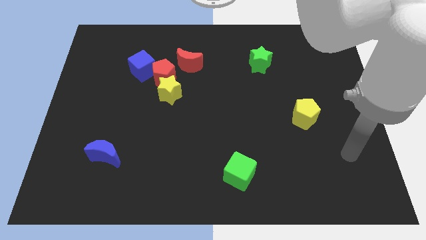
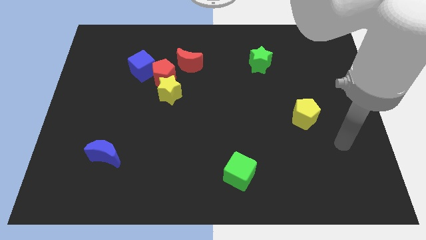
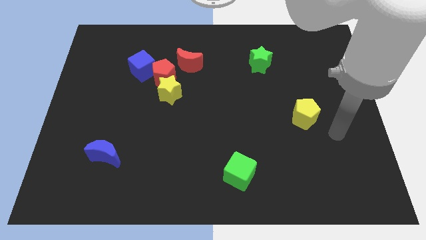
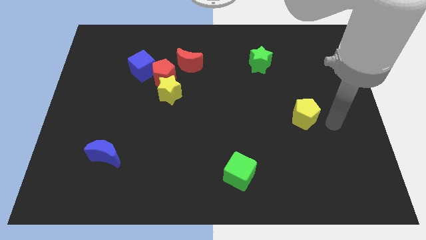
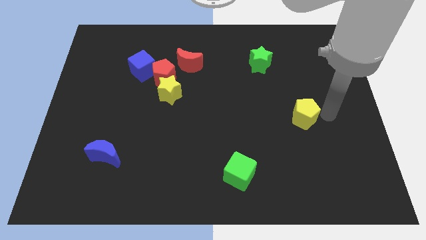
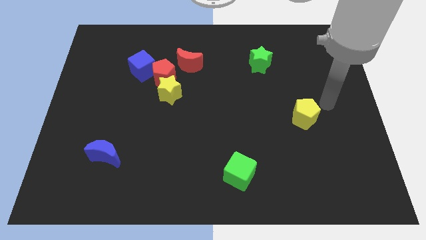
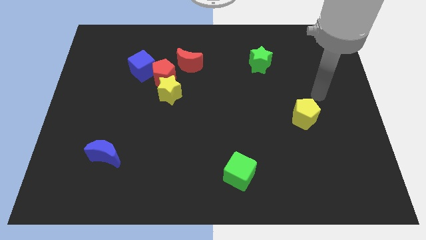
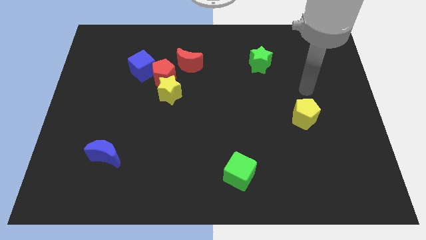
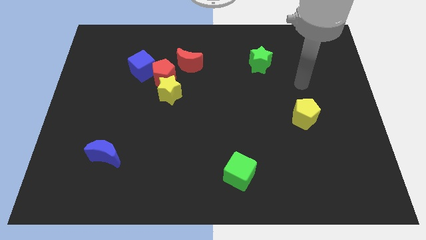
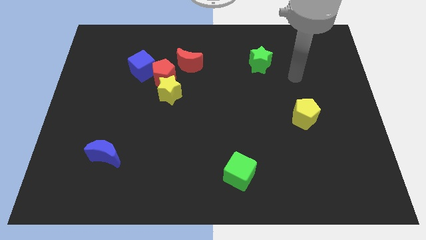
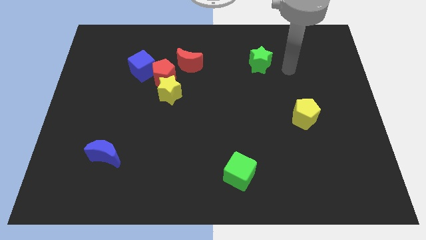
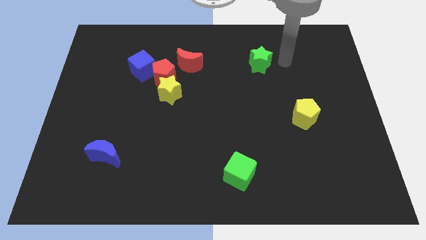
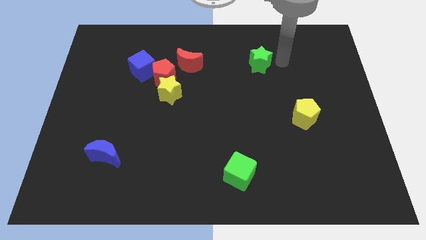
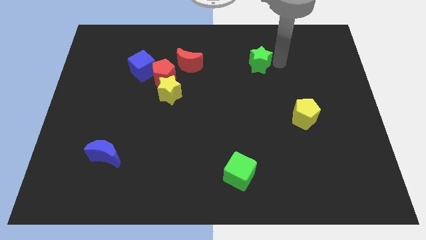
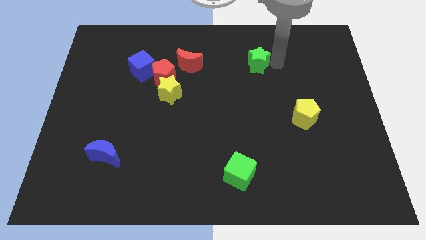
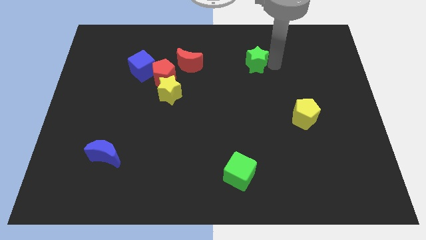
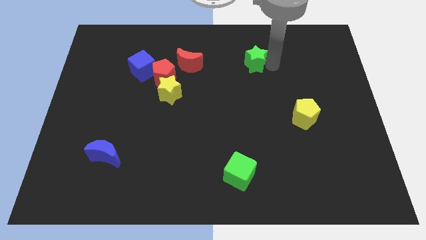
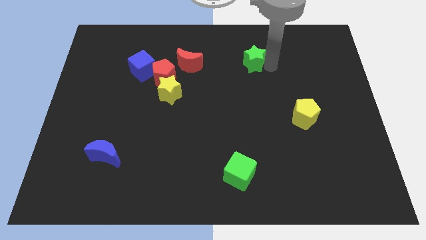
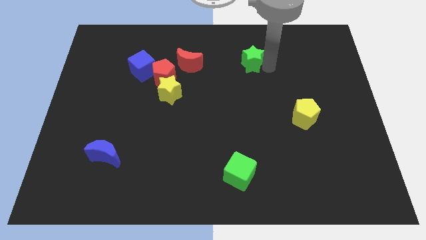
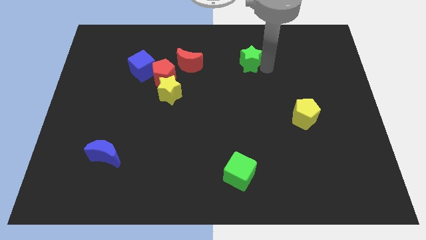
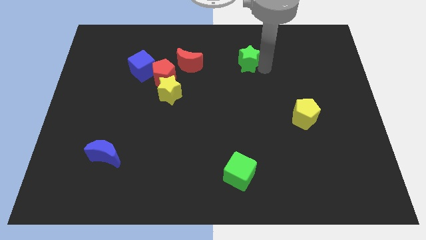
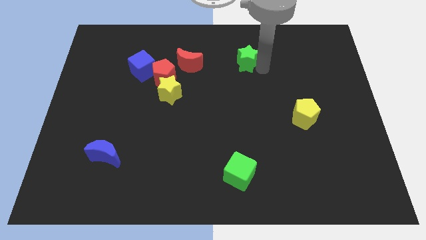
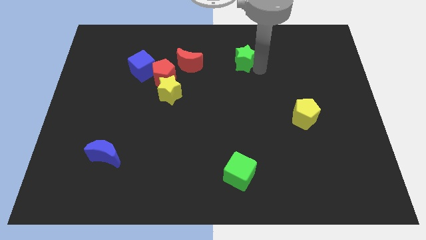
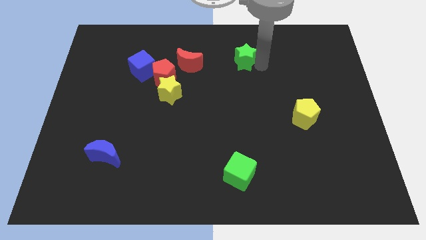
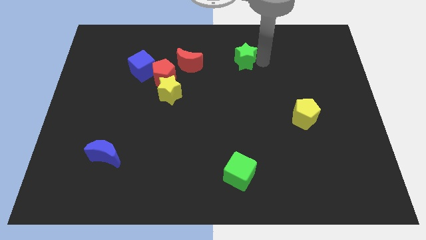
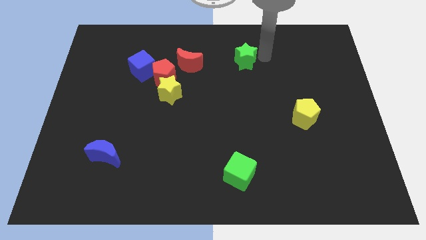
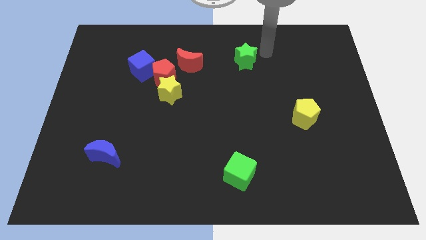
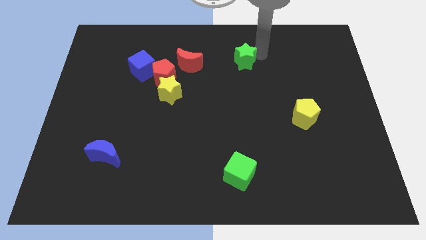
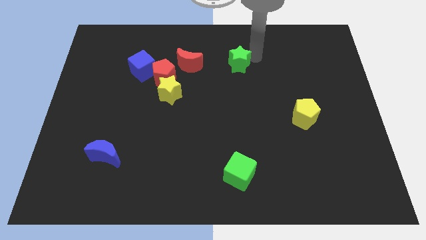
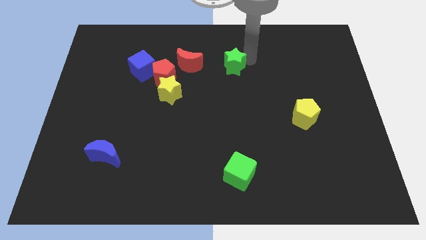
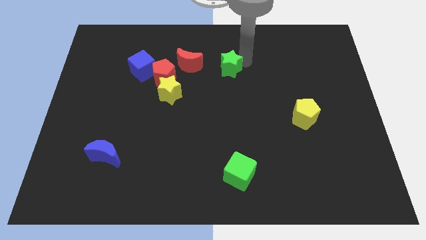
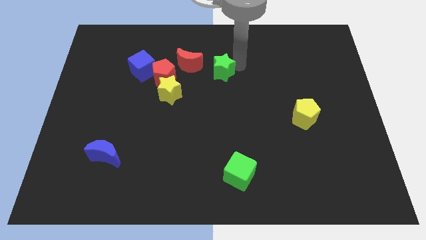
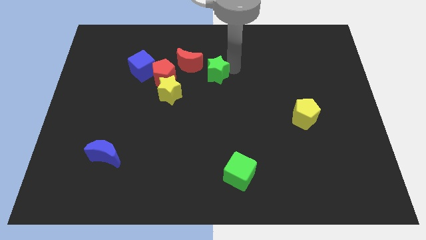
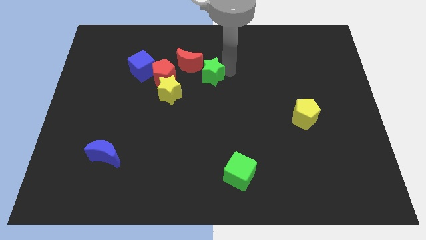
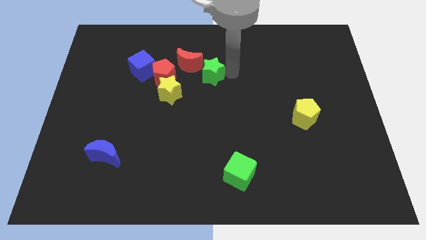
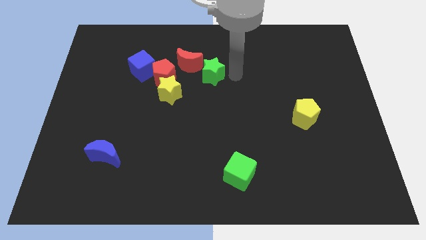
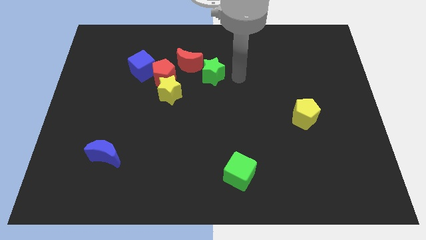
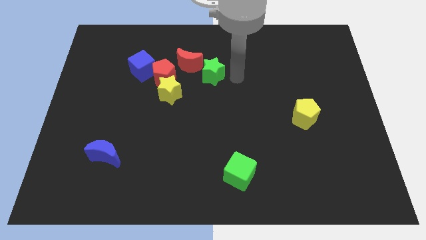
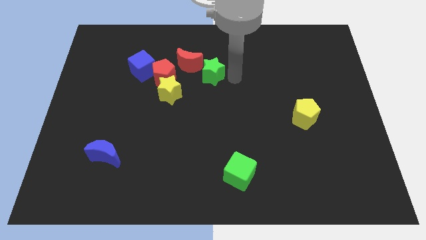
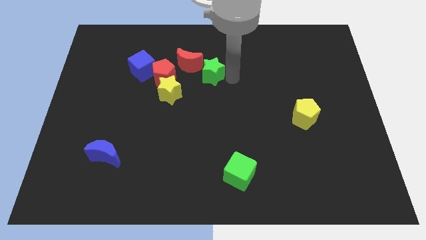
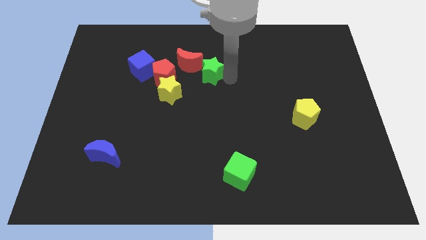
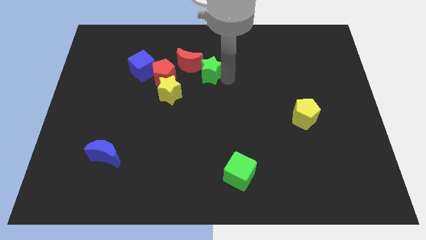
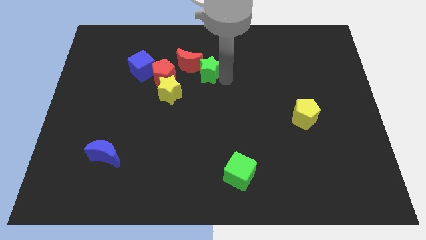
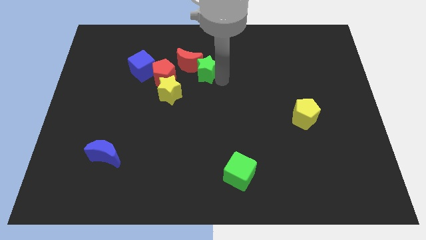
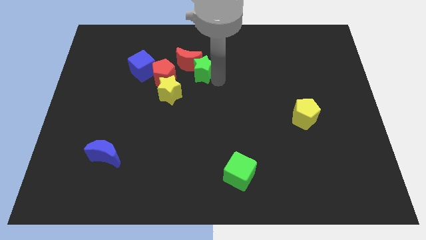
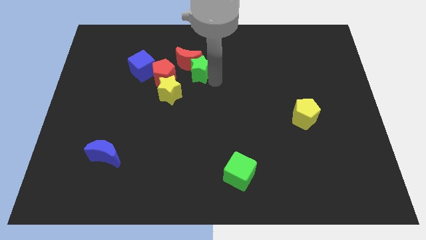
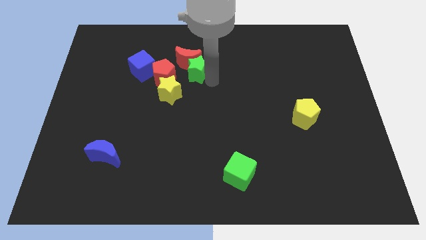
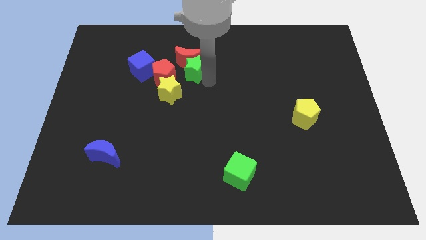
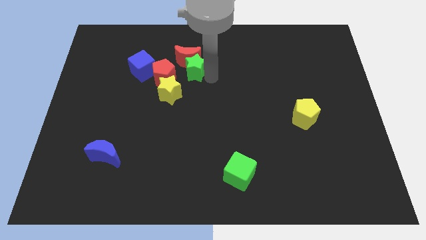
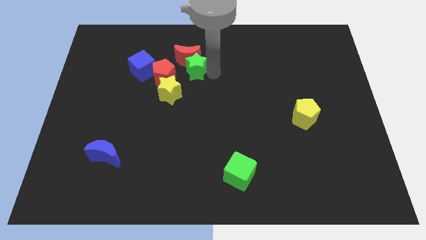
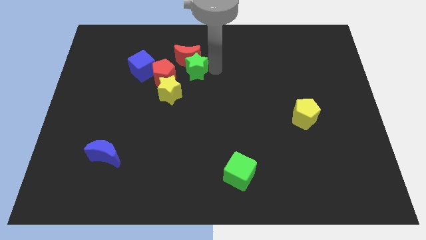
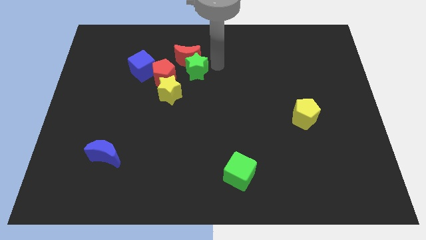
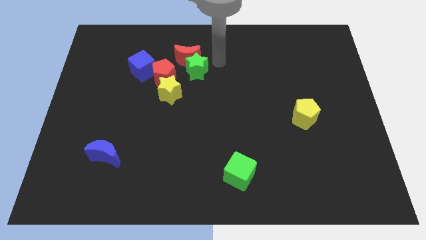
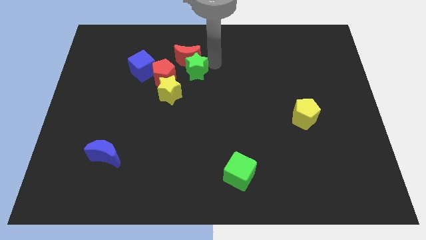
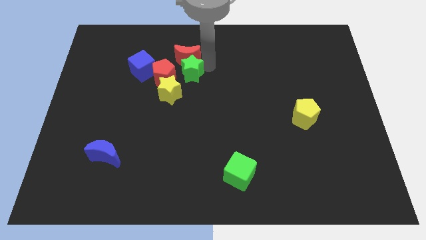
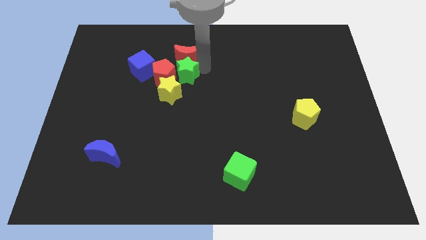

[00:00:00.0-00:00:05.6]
put the green star close to the red pentagon
